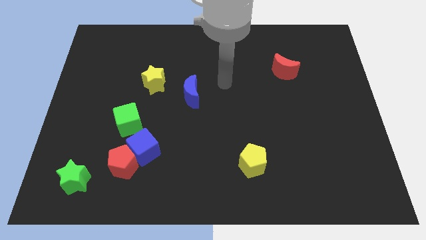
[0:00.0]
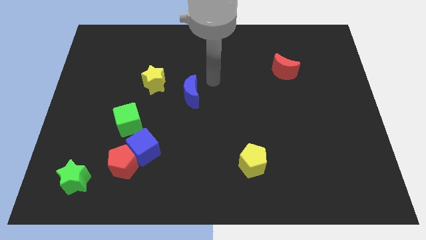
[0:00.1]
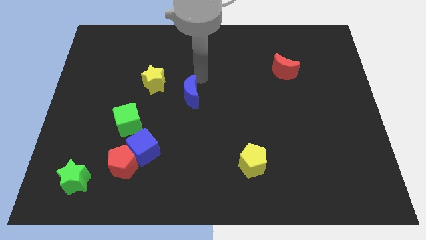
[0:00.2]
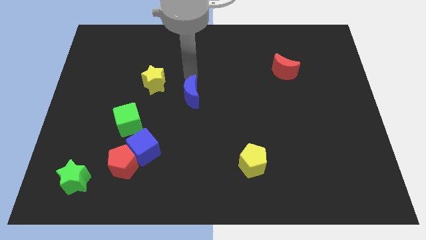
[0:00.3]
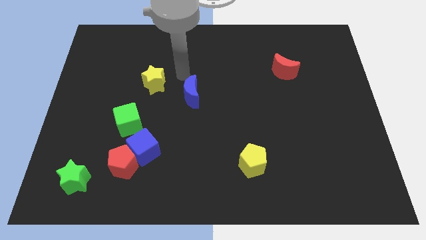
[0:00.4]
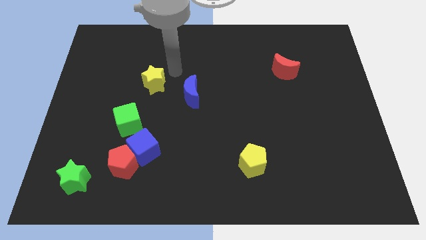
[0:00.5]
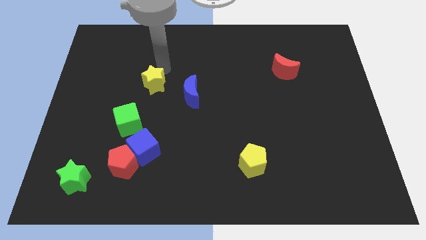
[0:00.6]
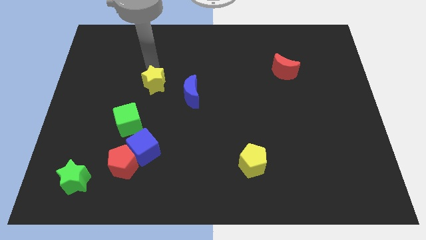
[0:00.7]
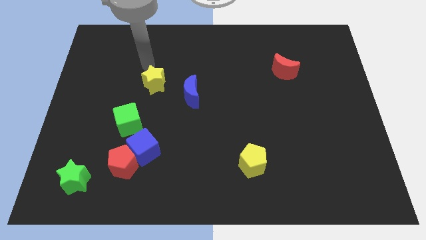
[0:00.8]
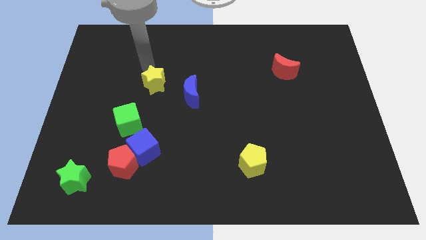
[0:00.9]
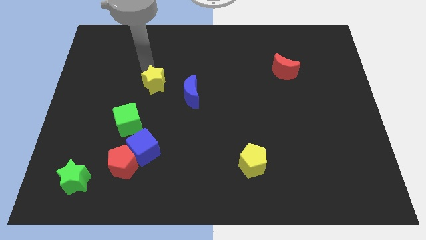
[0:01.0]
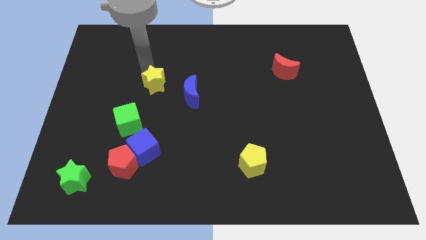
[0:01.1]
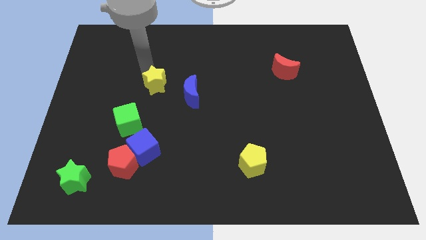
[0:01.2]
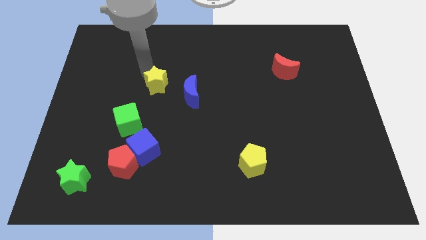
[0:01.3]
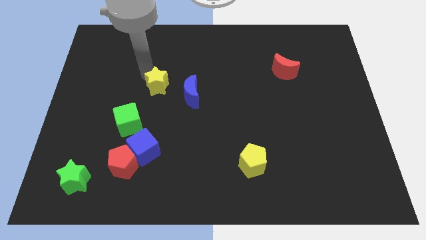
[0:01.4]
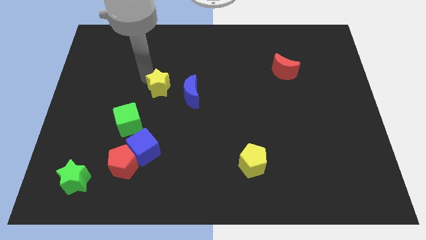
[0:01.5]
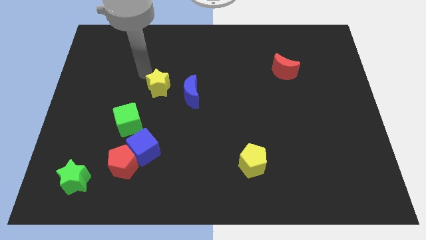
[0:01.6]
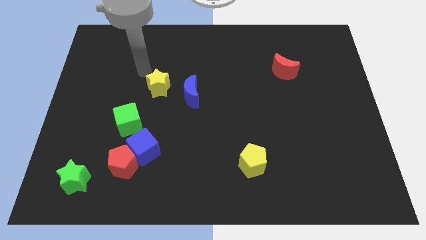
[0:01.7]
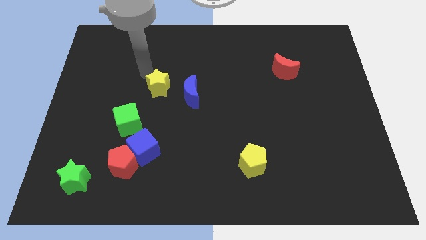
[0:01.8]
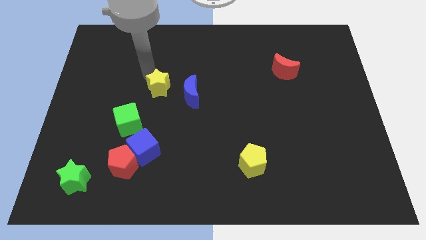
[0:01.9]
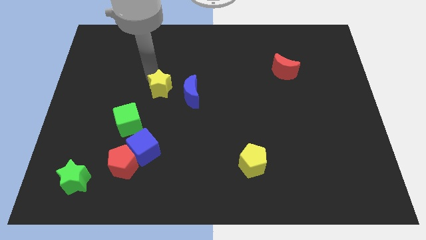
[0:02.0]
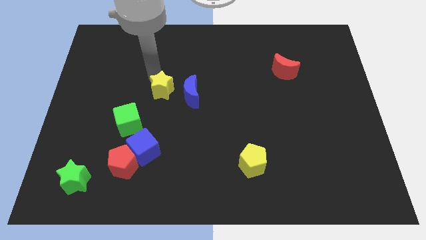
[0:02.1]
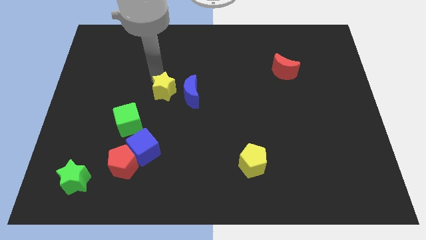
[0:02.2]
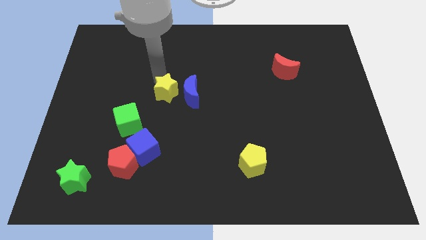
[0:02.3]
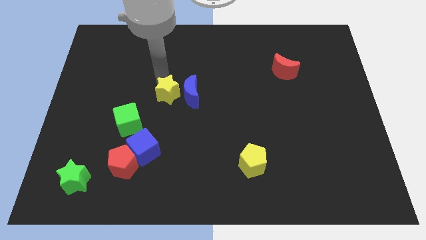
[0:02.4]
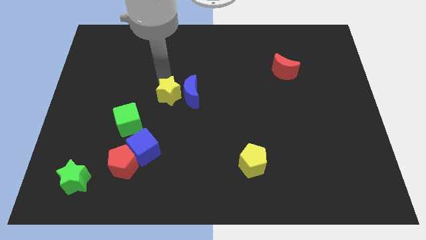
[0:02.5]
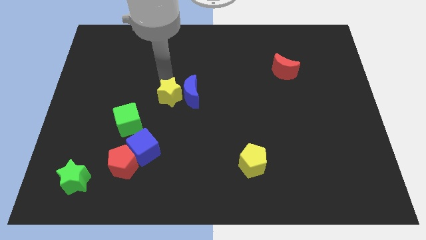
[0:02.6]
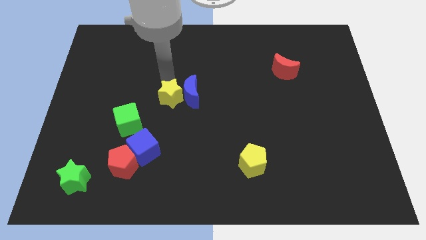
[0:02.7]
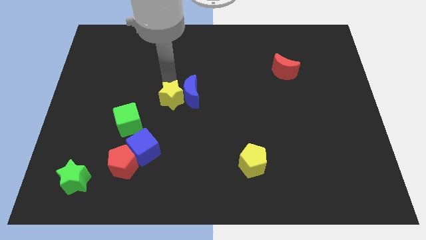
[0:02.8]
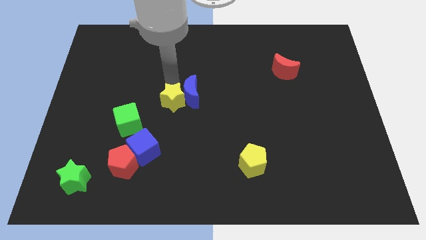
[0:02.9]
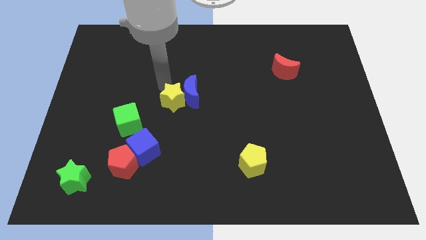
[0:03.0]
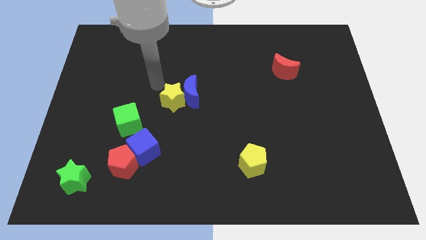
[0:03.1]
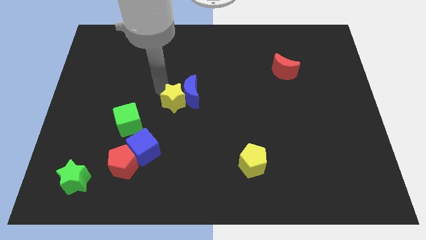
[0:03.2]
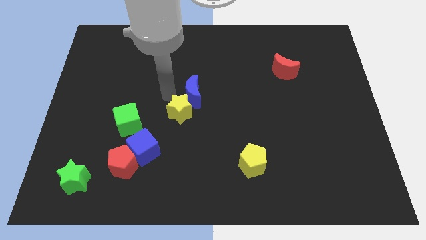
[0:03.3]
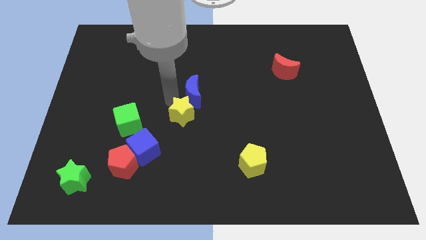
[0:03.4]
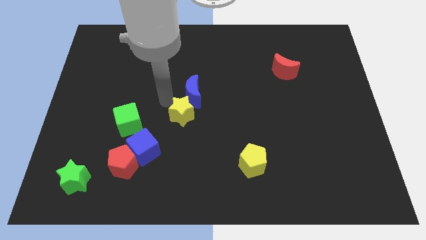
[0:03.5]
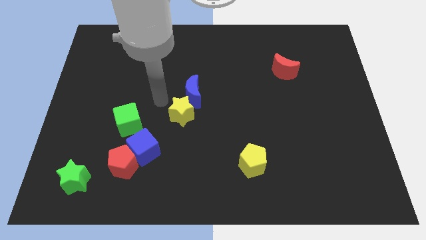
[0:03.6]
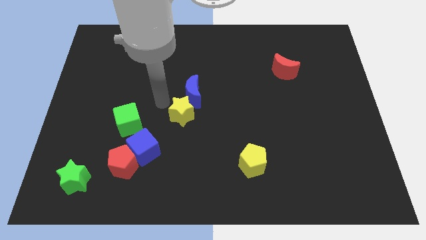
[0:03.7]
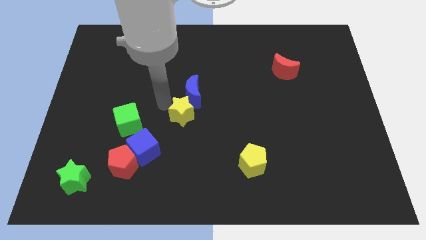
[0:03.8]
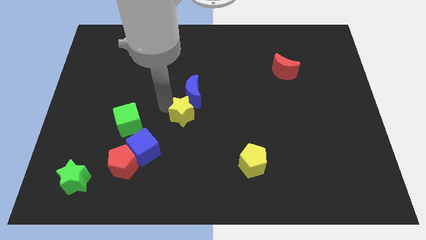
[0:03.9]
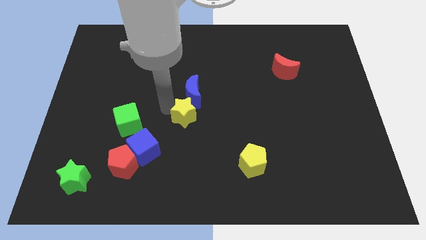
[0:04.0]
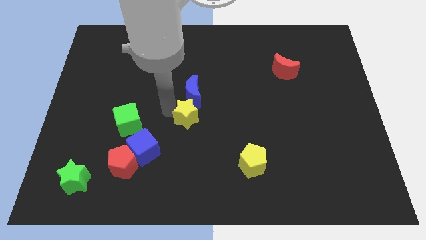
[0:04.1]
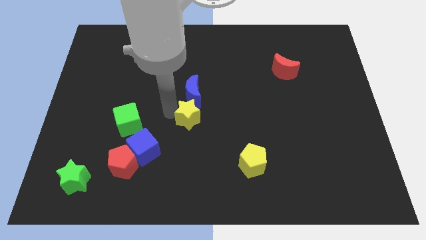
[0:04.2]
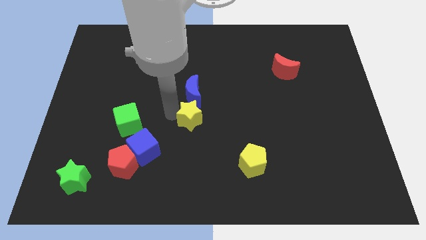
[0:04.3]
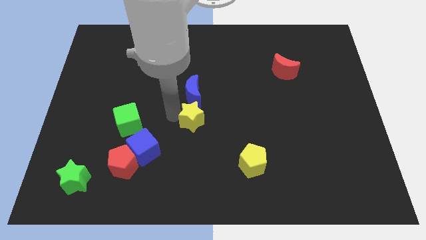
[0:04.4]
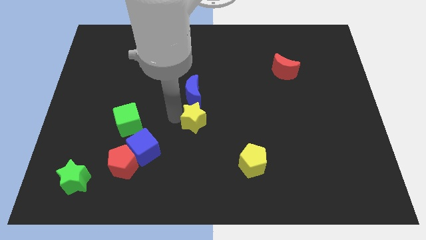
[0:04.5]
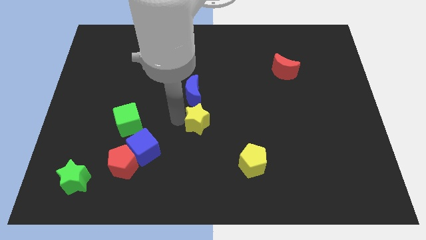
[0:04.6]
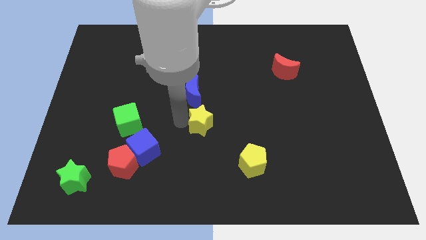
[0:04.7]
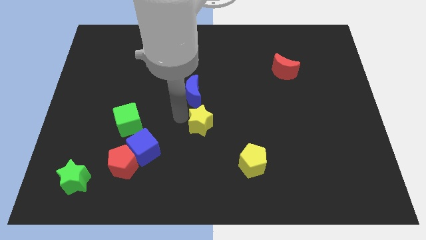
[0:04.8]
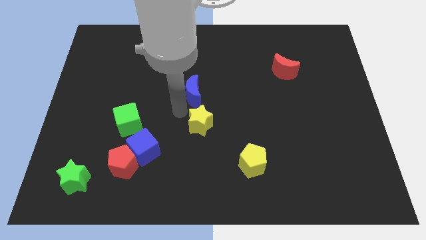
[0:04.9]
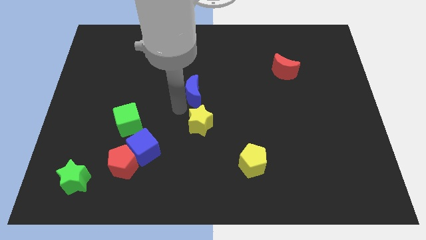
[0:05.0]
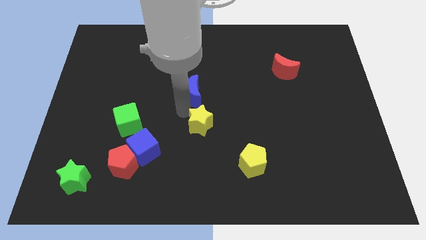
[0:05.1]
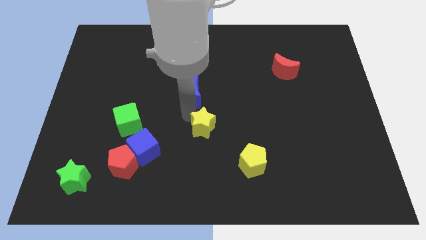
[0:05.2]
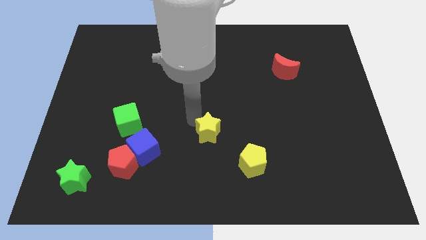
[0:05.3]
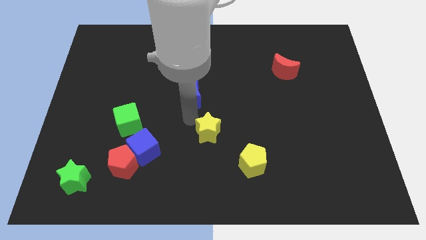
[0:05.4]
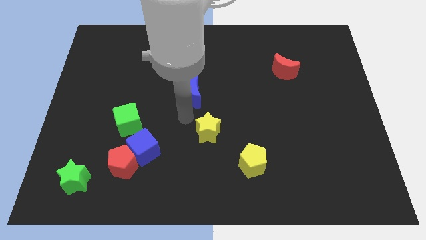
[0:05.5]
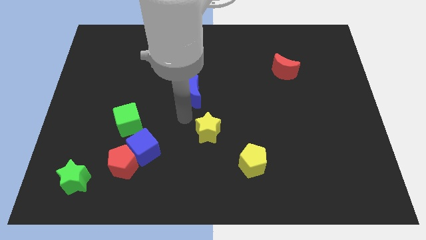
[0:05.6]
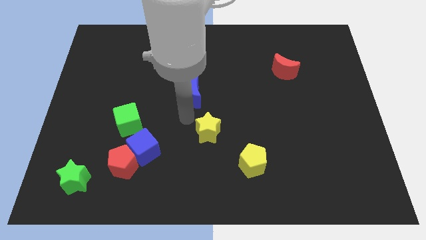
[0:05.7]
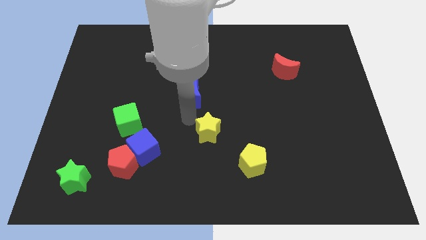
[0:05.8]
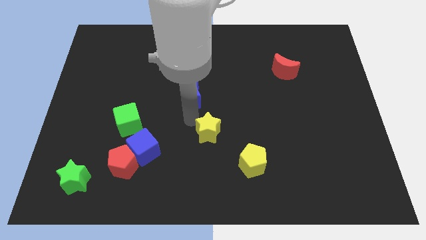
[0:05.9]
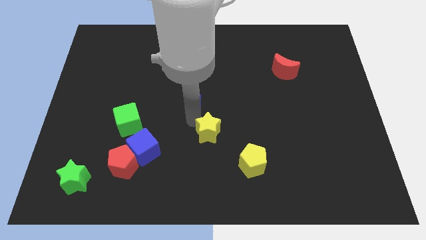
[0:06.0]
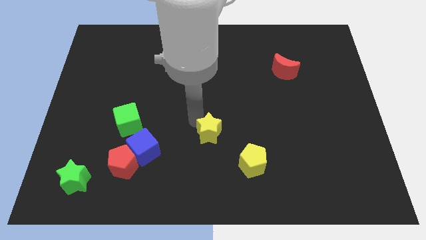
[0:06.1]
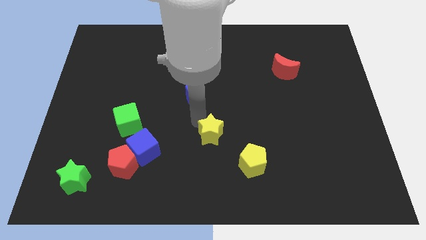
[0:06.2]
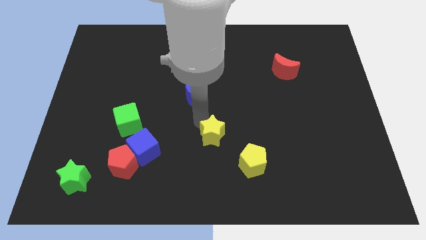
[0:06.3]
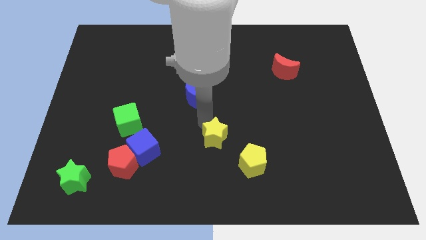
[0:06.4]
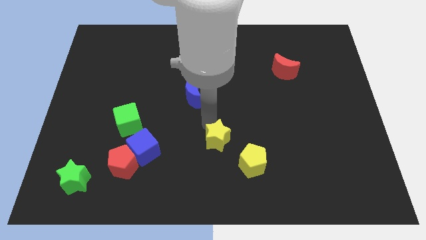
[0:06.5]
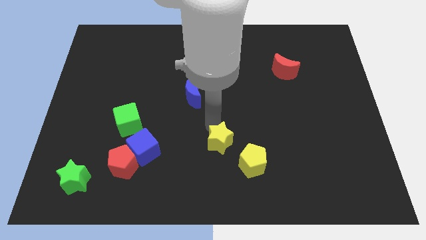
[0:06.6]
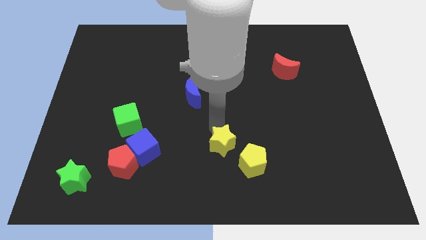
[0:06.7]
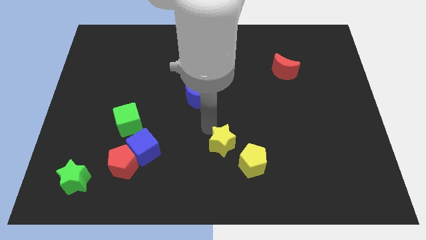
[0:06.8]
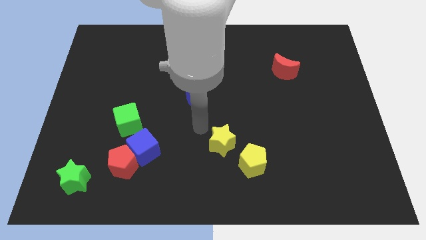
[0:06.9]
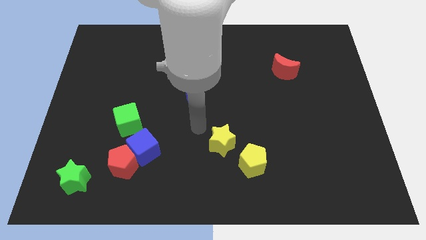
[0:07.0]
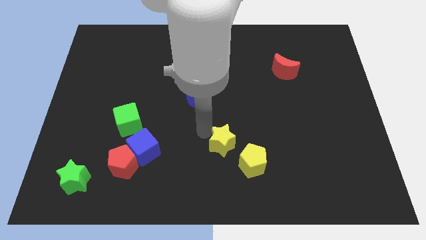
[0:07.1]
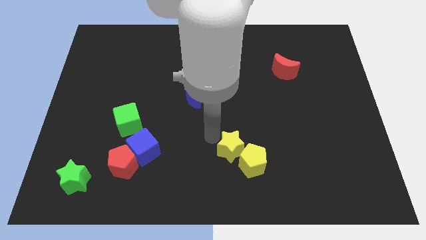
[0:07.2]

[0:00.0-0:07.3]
slide the yellow star close to the yellow pentagon

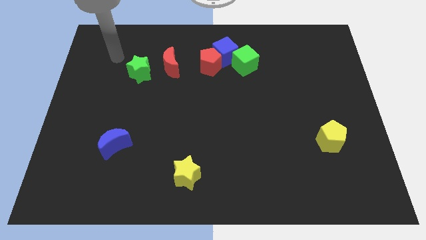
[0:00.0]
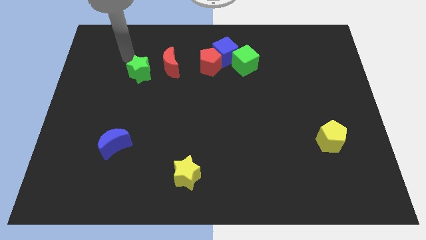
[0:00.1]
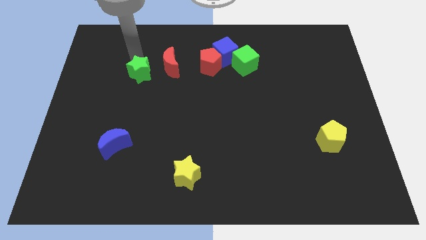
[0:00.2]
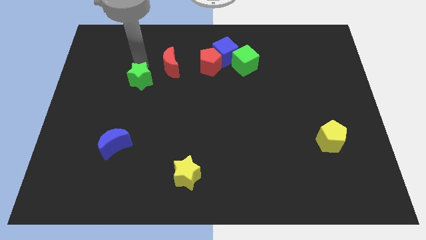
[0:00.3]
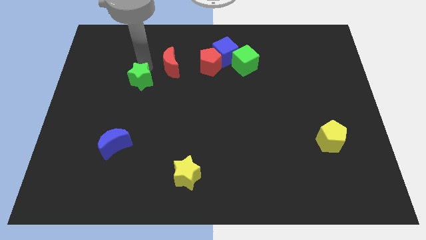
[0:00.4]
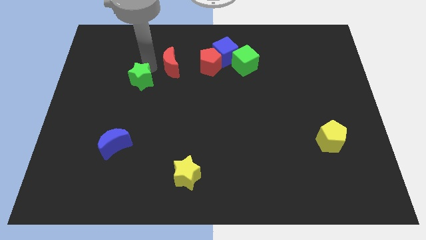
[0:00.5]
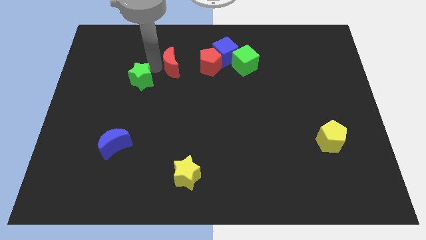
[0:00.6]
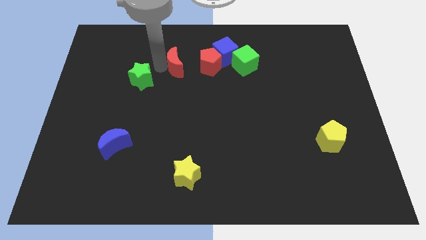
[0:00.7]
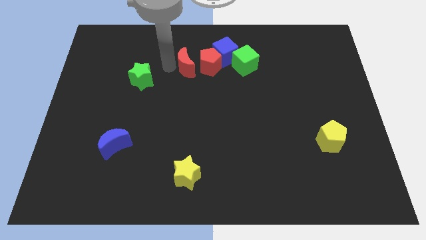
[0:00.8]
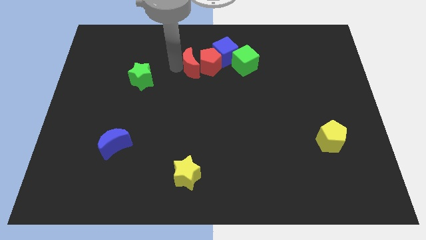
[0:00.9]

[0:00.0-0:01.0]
move the red moon towards the red pentagon
